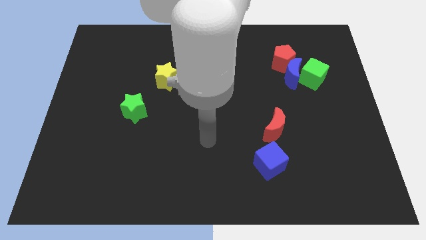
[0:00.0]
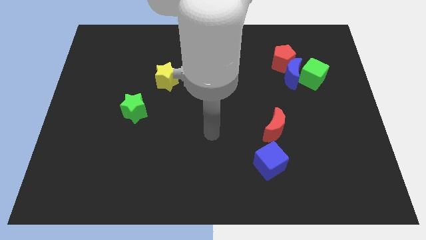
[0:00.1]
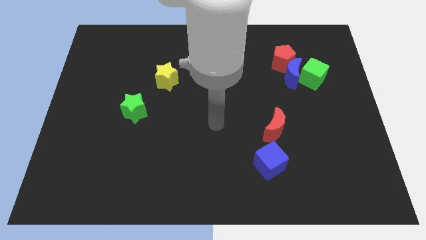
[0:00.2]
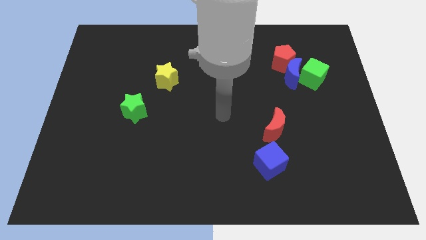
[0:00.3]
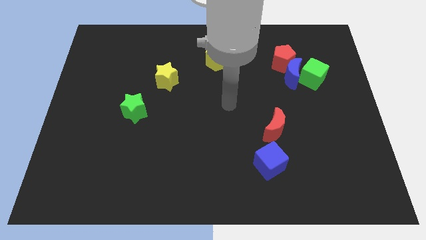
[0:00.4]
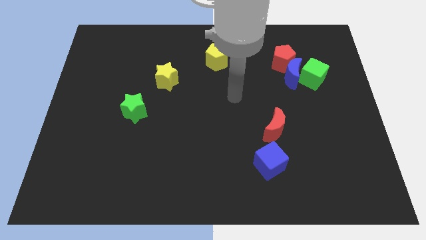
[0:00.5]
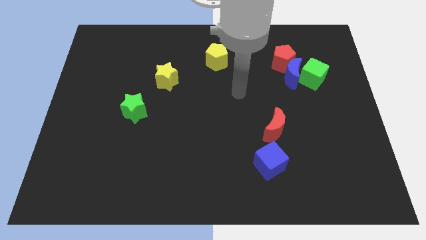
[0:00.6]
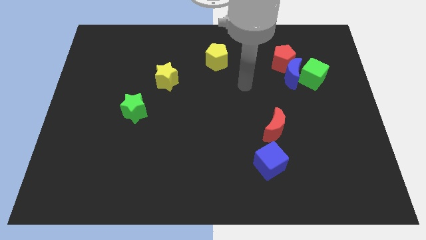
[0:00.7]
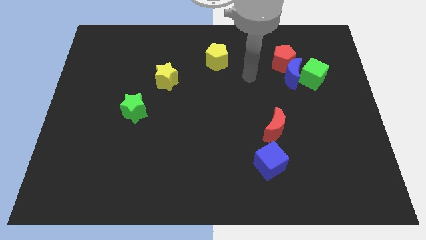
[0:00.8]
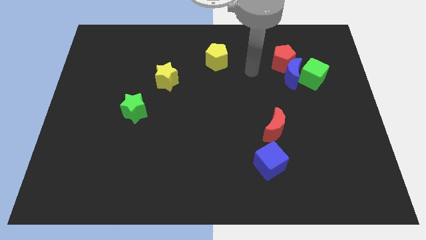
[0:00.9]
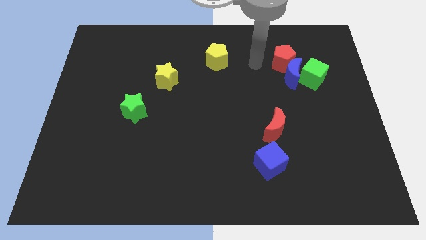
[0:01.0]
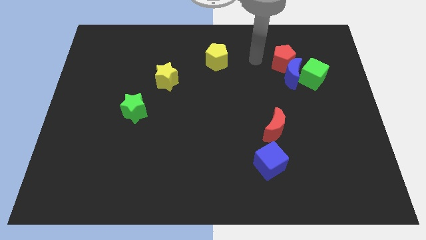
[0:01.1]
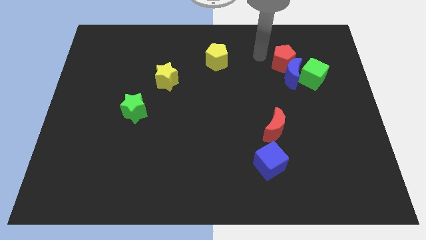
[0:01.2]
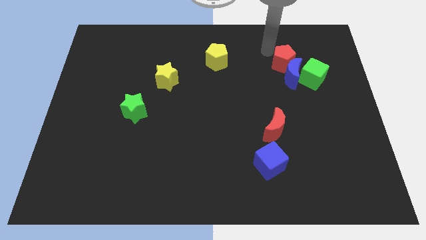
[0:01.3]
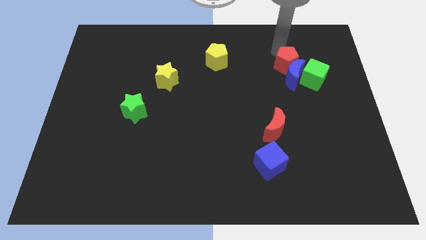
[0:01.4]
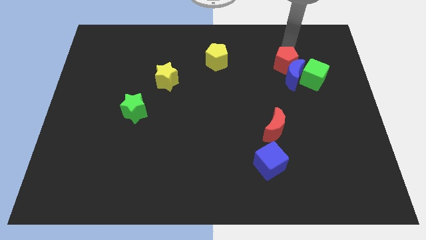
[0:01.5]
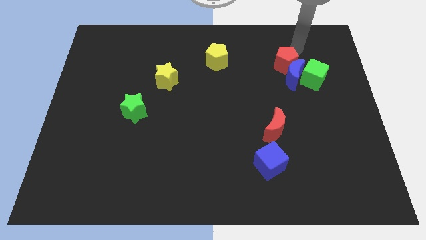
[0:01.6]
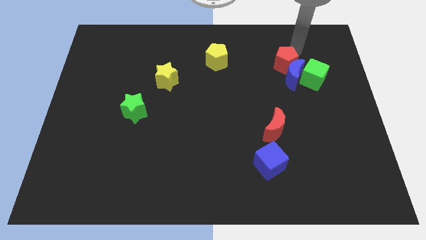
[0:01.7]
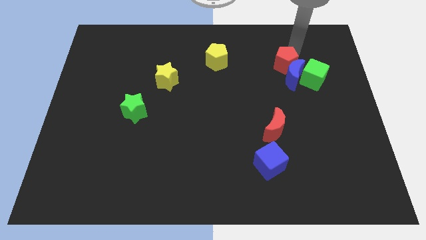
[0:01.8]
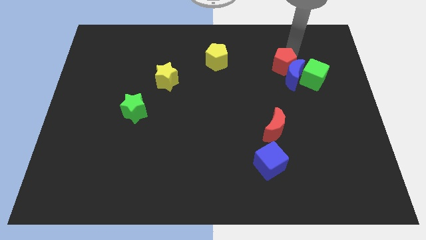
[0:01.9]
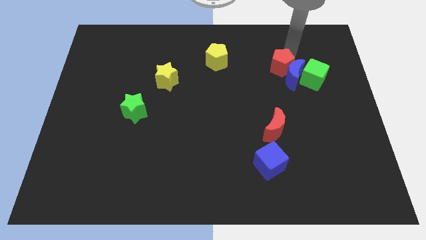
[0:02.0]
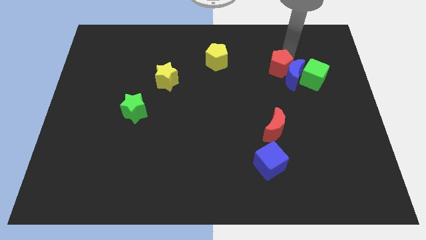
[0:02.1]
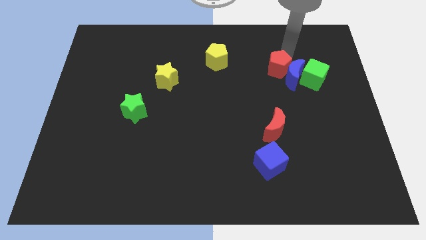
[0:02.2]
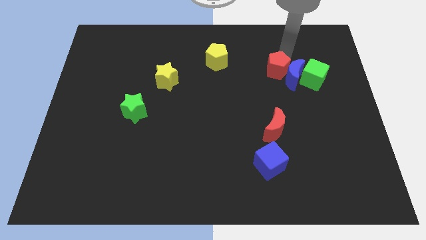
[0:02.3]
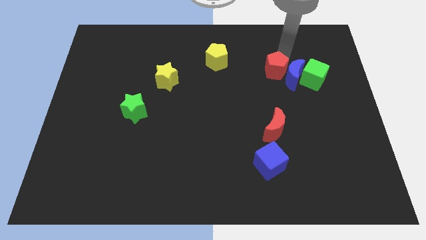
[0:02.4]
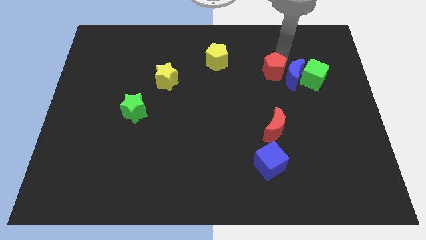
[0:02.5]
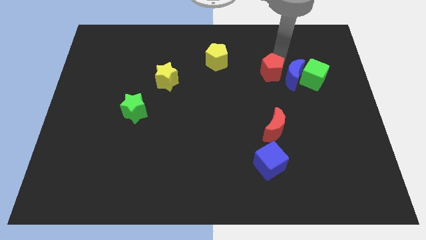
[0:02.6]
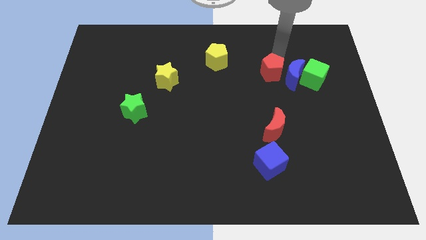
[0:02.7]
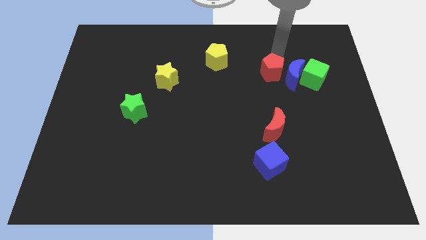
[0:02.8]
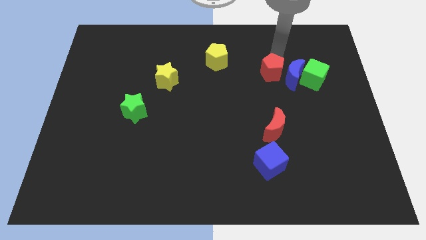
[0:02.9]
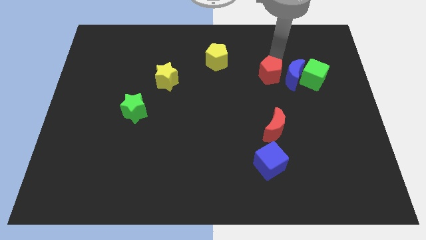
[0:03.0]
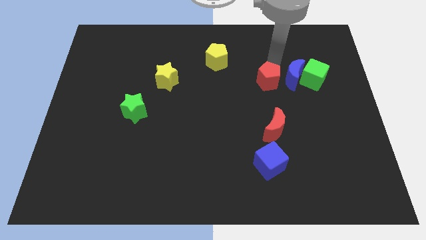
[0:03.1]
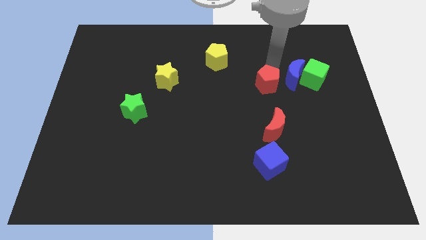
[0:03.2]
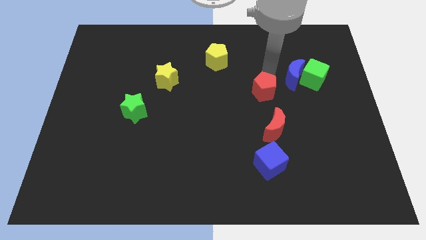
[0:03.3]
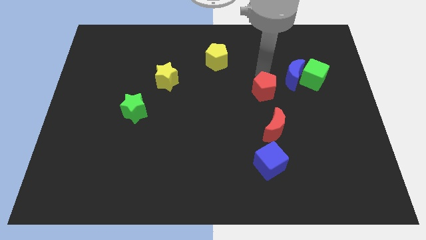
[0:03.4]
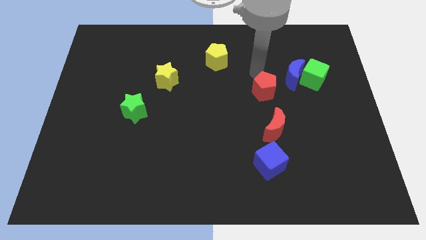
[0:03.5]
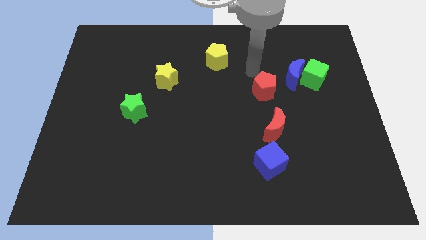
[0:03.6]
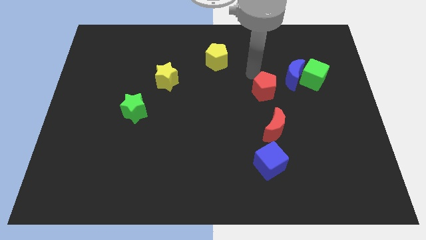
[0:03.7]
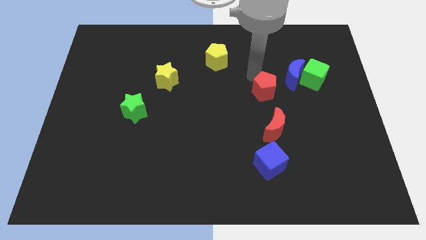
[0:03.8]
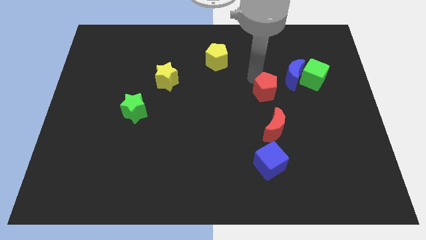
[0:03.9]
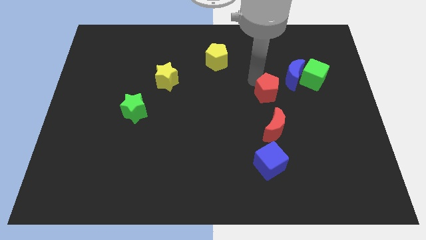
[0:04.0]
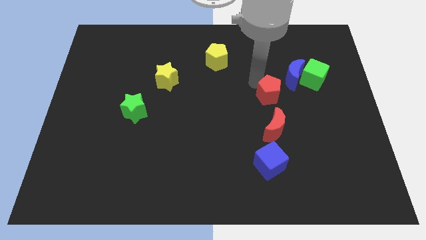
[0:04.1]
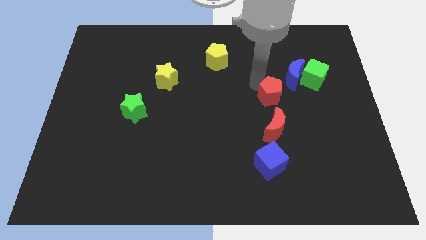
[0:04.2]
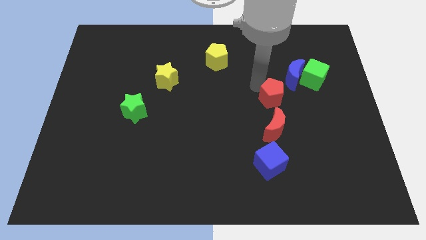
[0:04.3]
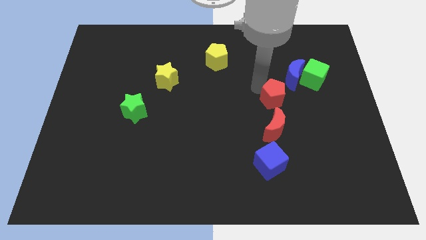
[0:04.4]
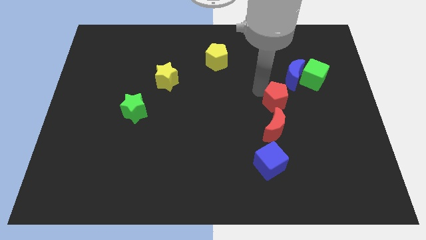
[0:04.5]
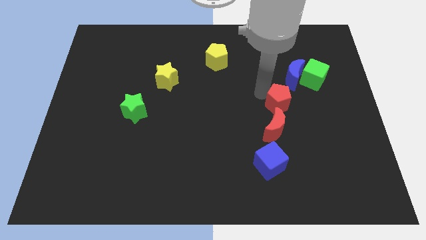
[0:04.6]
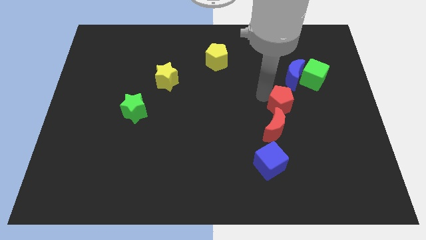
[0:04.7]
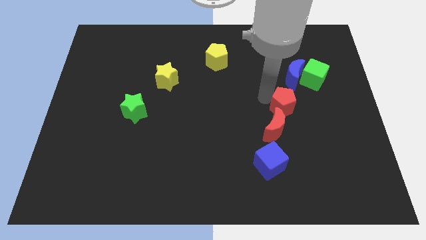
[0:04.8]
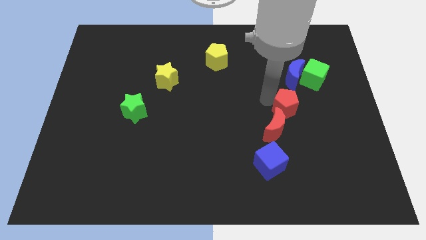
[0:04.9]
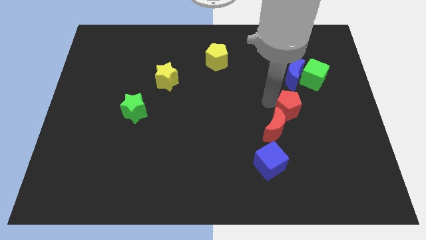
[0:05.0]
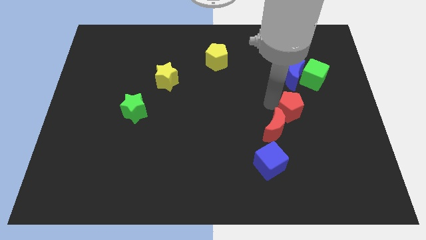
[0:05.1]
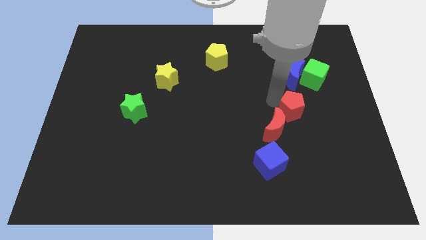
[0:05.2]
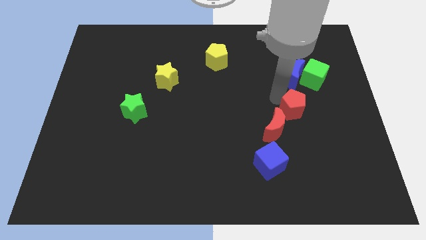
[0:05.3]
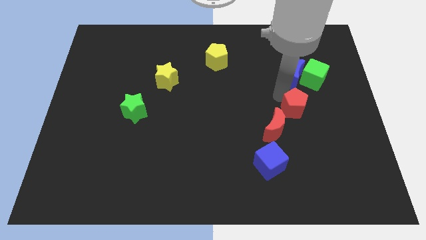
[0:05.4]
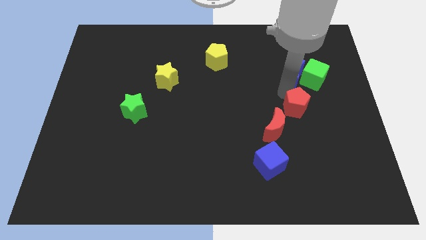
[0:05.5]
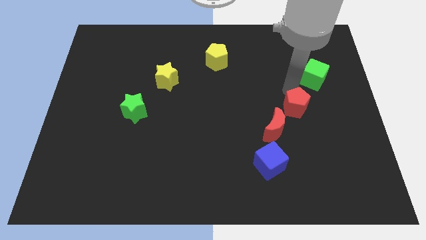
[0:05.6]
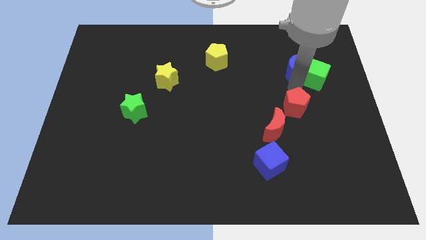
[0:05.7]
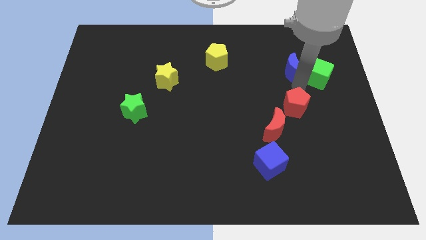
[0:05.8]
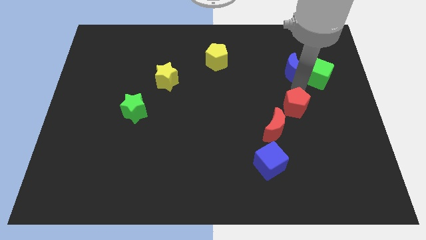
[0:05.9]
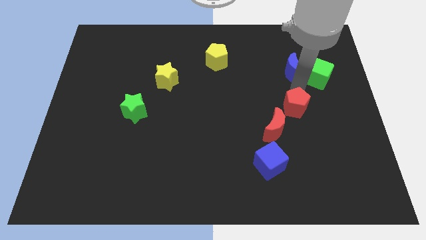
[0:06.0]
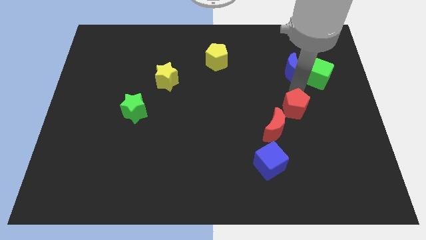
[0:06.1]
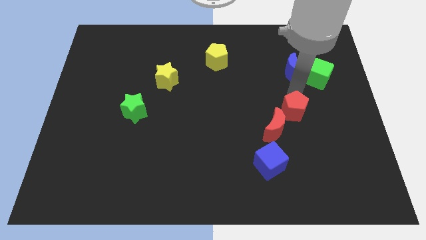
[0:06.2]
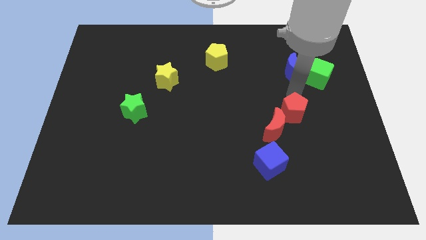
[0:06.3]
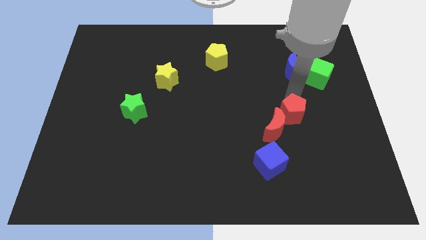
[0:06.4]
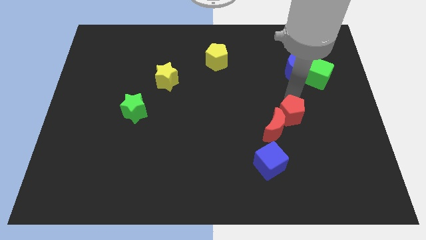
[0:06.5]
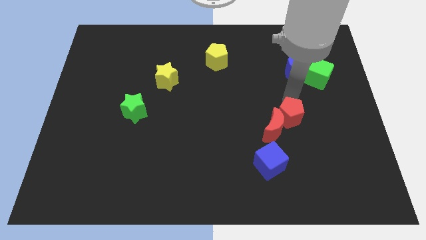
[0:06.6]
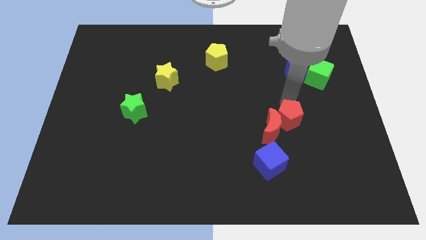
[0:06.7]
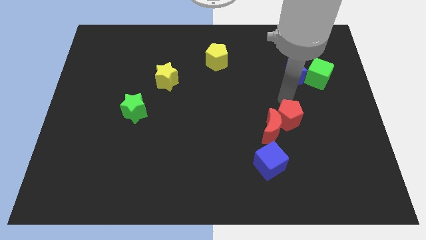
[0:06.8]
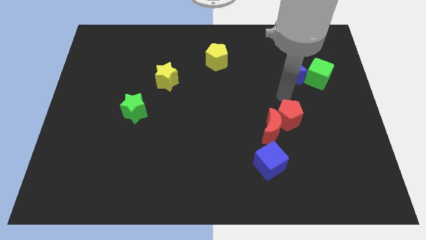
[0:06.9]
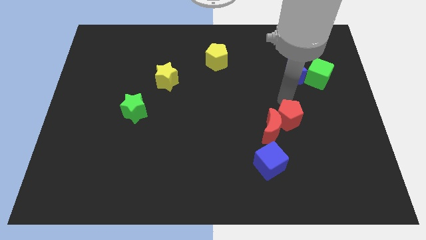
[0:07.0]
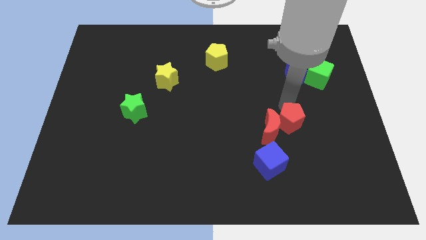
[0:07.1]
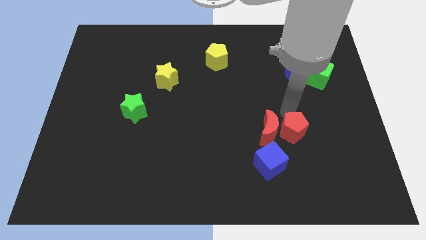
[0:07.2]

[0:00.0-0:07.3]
slide the red pentagon downwards

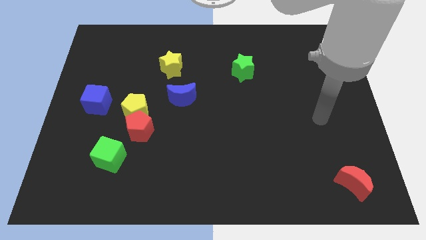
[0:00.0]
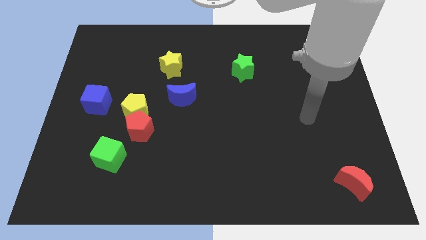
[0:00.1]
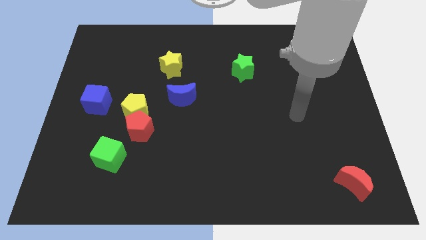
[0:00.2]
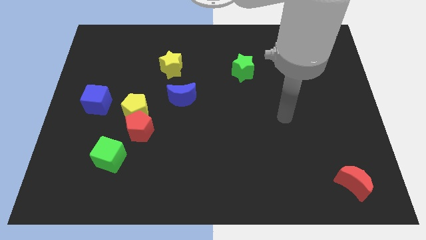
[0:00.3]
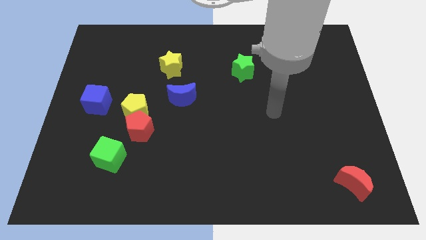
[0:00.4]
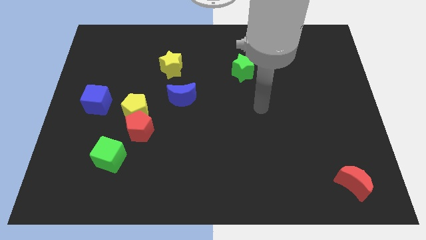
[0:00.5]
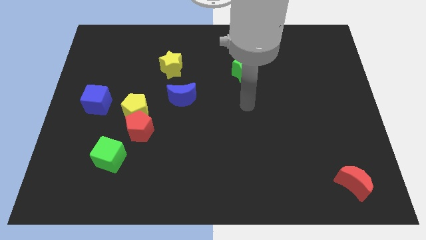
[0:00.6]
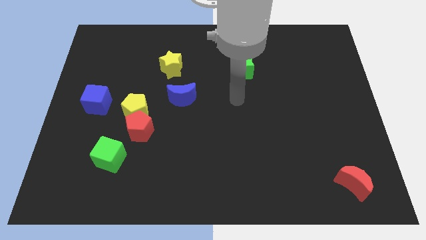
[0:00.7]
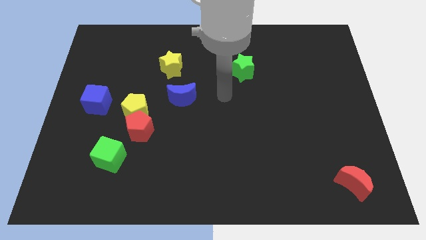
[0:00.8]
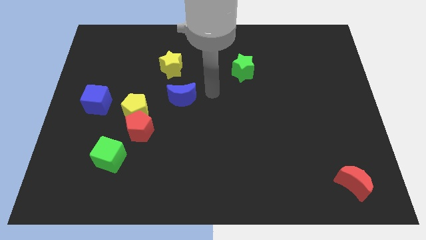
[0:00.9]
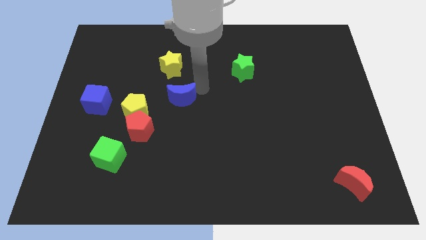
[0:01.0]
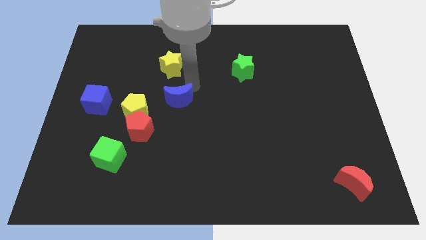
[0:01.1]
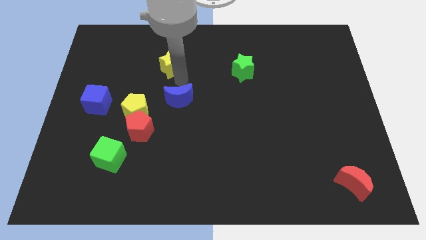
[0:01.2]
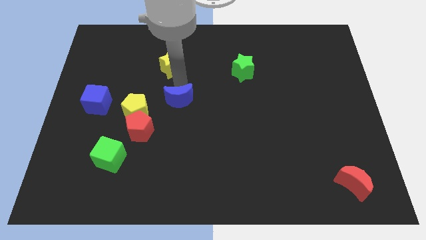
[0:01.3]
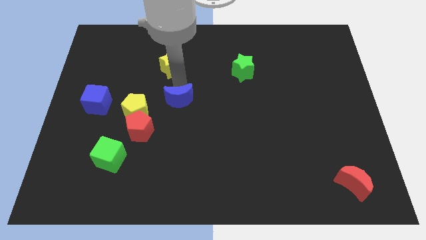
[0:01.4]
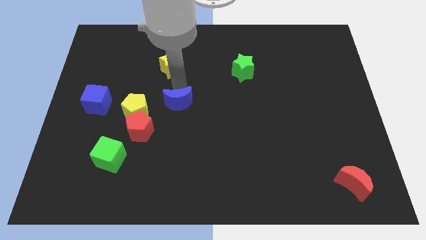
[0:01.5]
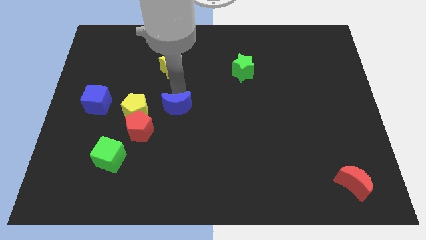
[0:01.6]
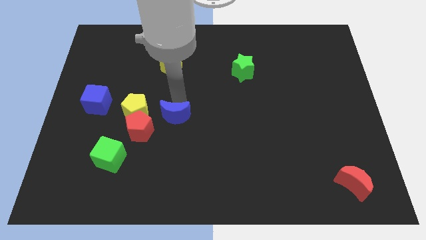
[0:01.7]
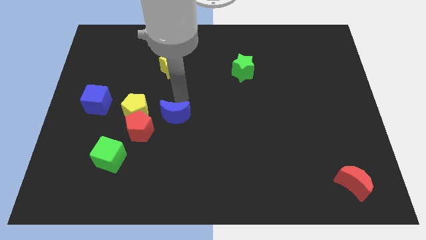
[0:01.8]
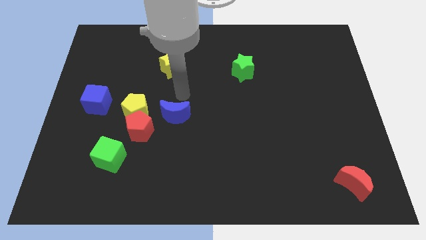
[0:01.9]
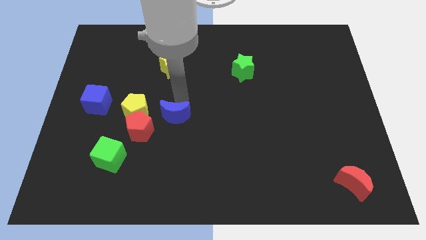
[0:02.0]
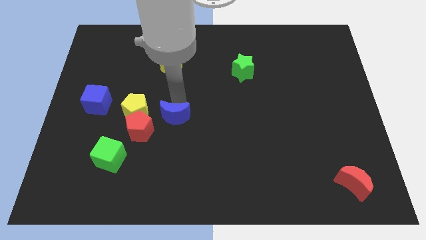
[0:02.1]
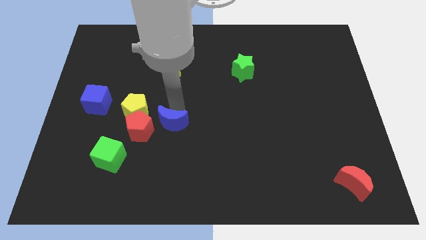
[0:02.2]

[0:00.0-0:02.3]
push the blue moon a bit down
